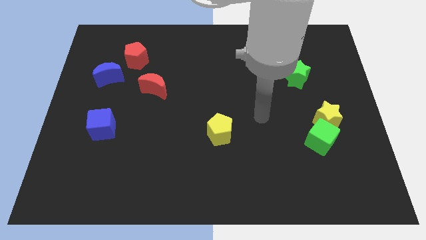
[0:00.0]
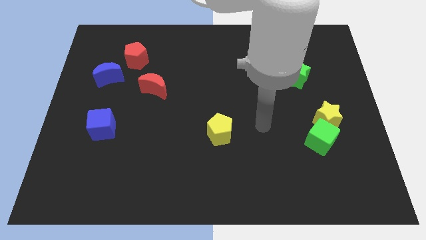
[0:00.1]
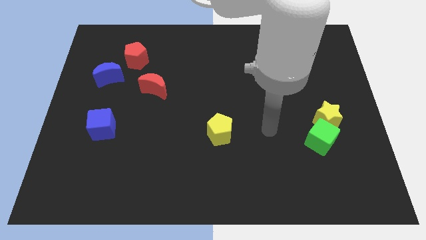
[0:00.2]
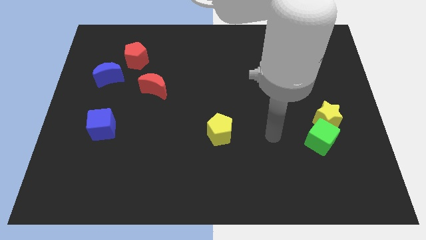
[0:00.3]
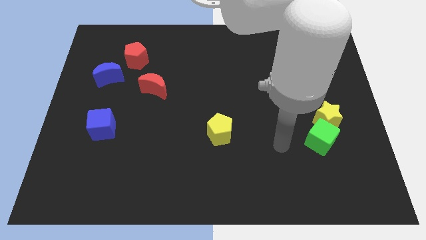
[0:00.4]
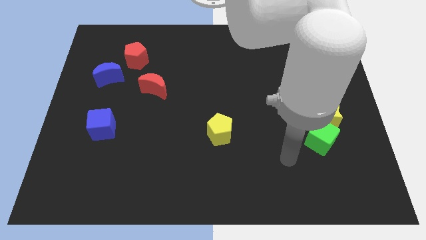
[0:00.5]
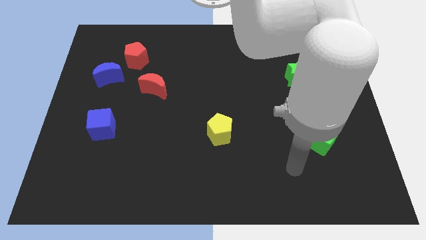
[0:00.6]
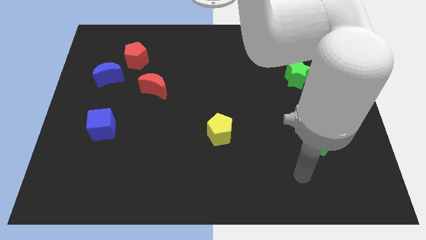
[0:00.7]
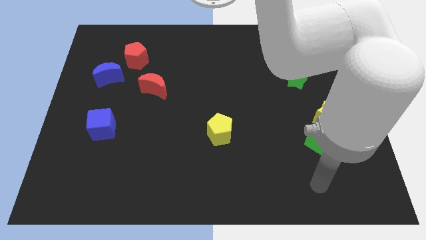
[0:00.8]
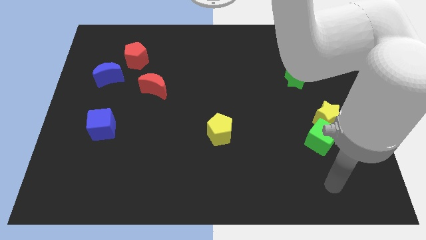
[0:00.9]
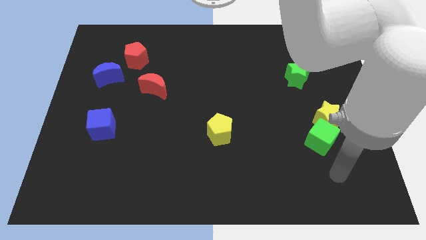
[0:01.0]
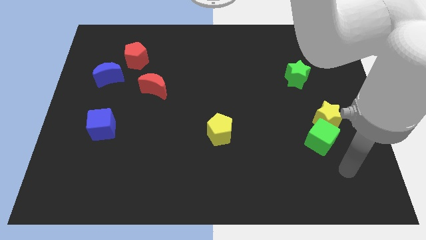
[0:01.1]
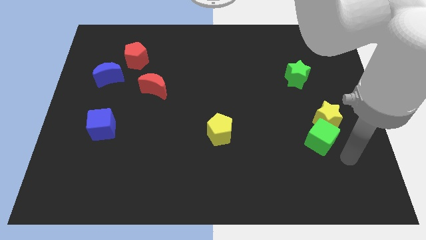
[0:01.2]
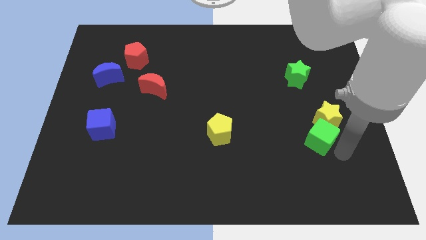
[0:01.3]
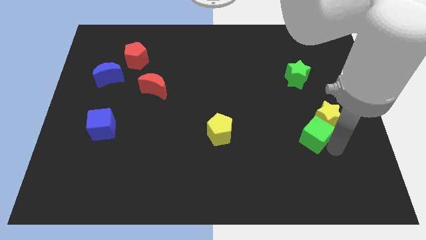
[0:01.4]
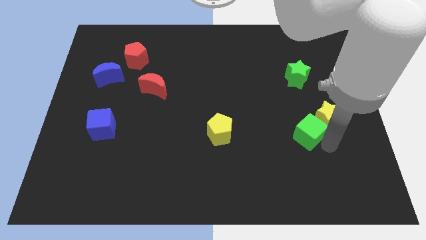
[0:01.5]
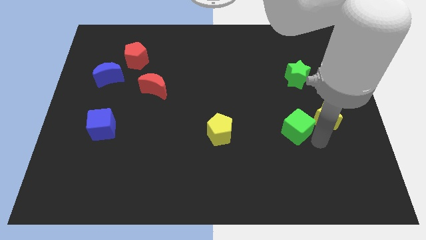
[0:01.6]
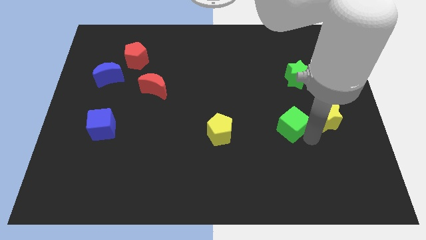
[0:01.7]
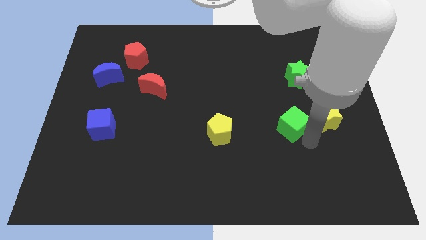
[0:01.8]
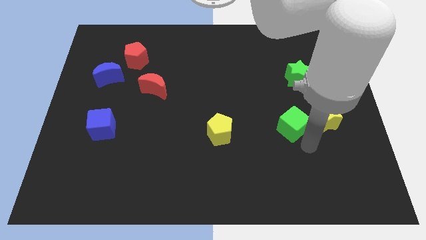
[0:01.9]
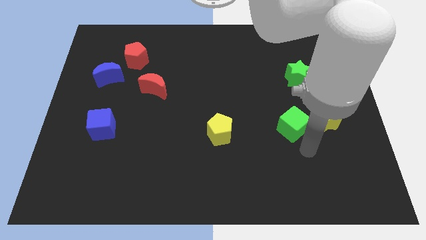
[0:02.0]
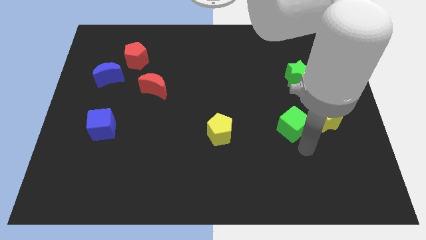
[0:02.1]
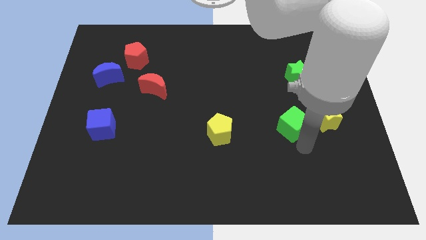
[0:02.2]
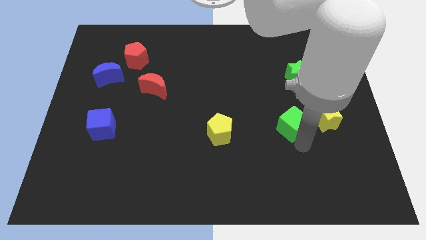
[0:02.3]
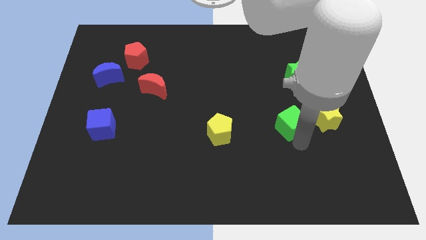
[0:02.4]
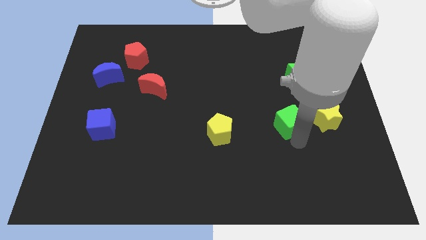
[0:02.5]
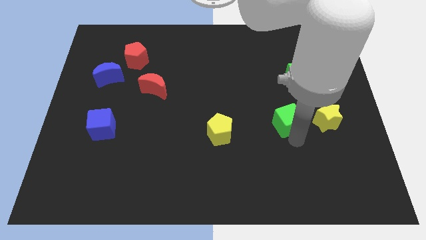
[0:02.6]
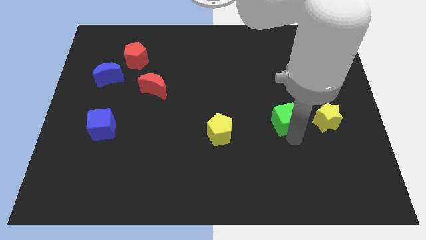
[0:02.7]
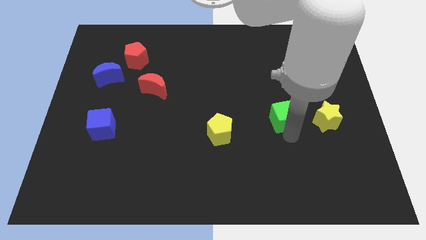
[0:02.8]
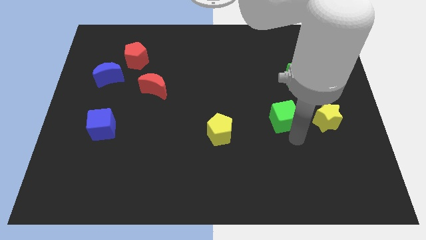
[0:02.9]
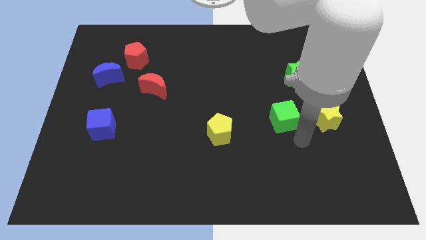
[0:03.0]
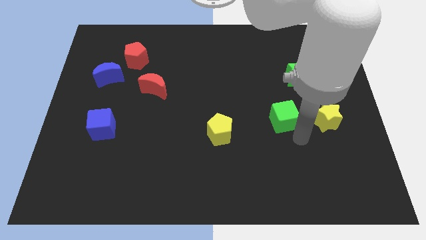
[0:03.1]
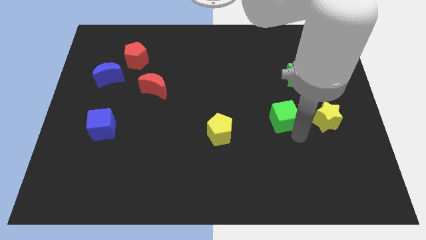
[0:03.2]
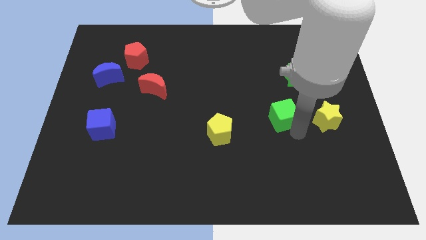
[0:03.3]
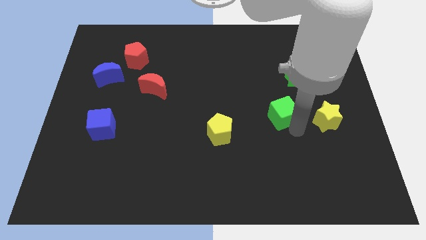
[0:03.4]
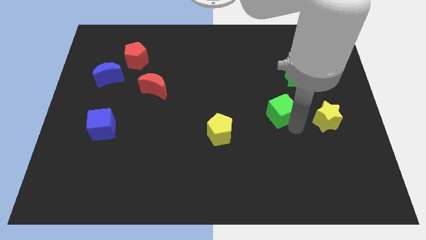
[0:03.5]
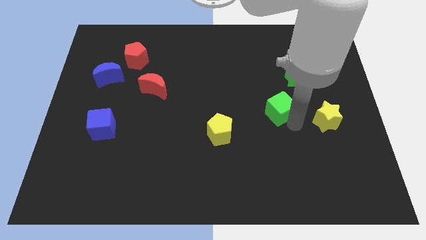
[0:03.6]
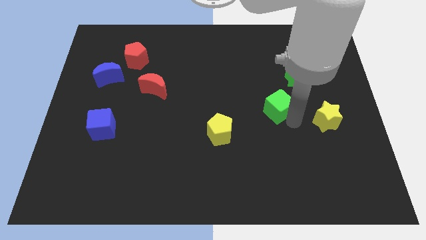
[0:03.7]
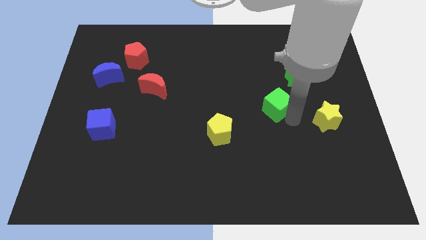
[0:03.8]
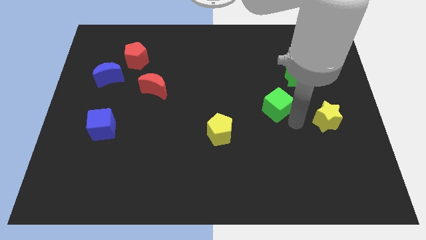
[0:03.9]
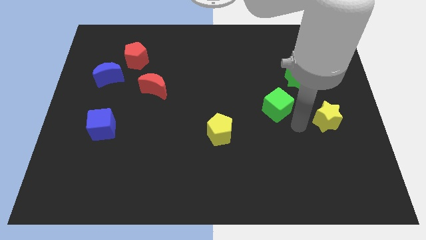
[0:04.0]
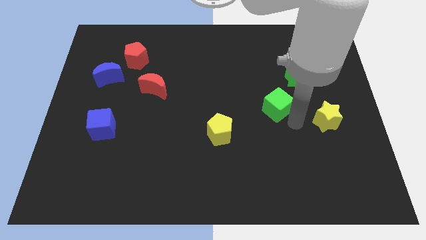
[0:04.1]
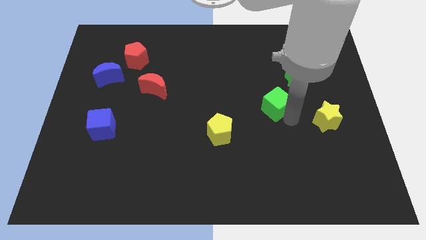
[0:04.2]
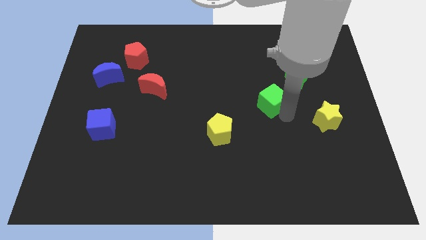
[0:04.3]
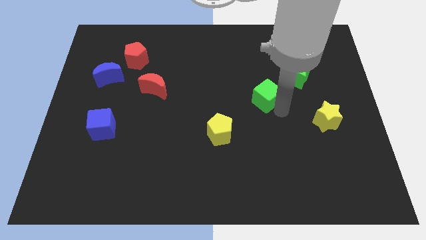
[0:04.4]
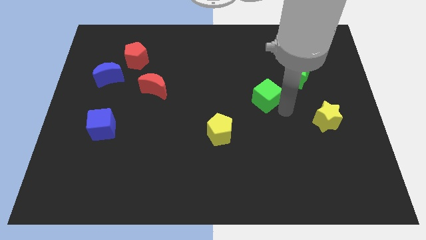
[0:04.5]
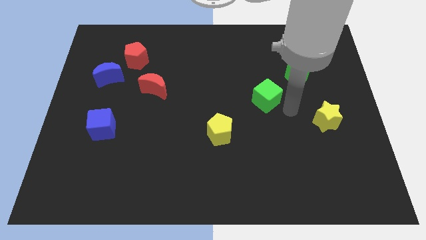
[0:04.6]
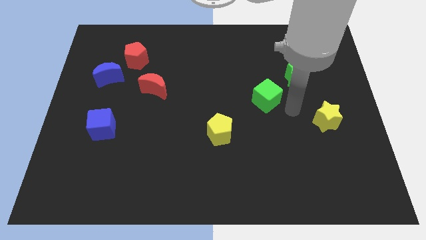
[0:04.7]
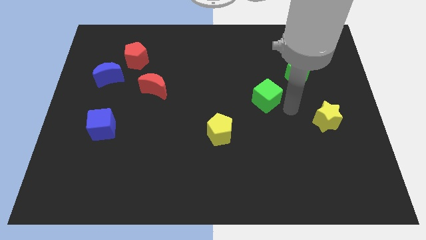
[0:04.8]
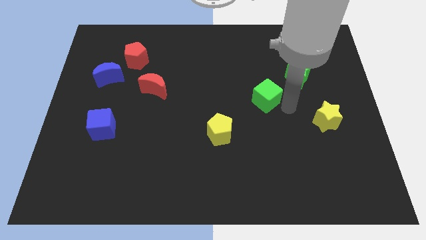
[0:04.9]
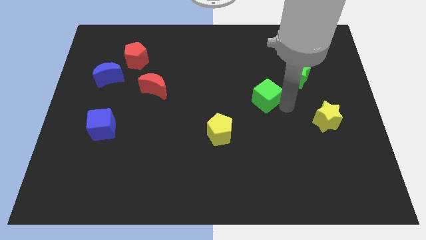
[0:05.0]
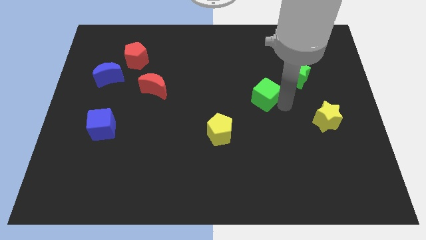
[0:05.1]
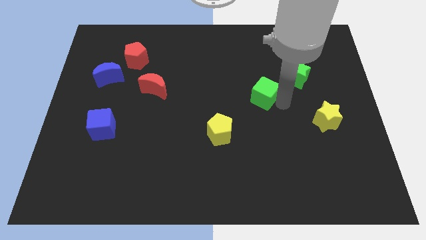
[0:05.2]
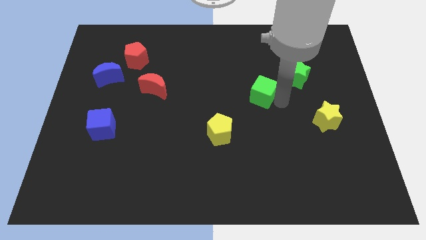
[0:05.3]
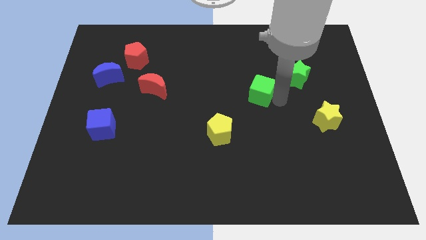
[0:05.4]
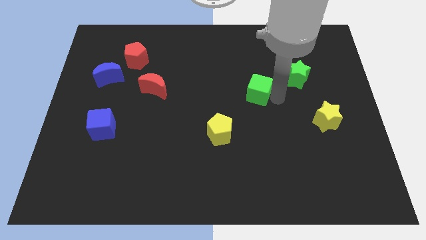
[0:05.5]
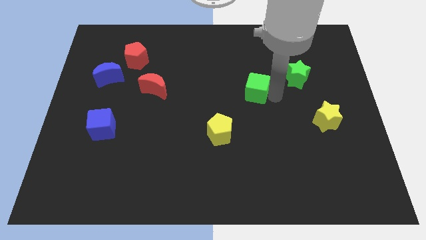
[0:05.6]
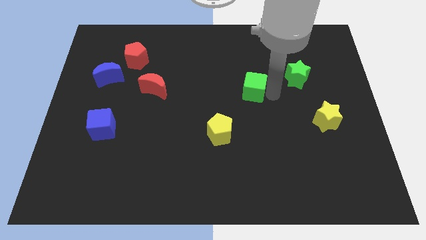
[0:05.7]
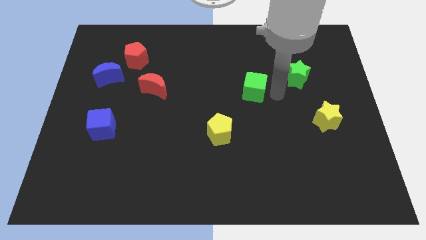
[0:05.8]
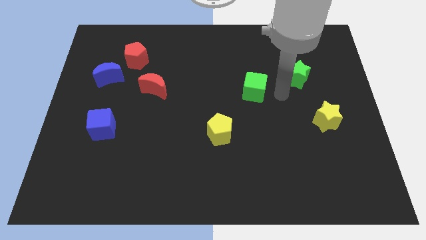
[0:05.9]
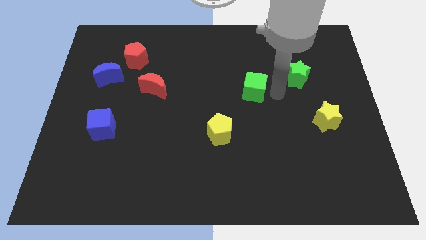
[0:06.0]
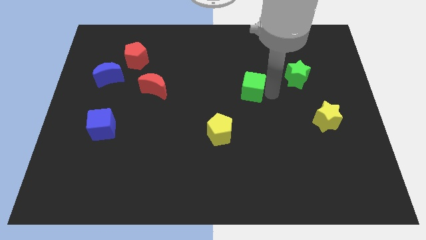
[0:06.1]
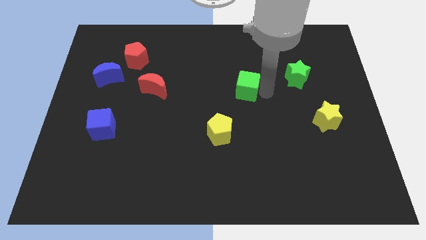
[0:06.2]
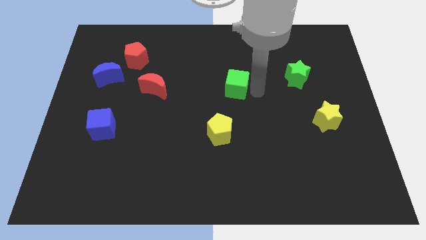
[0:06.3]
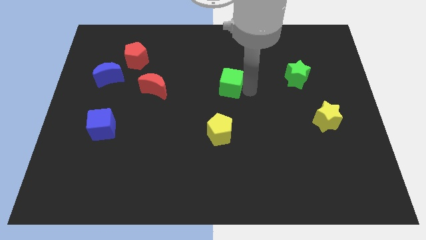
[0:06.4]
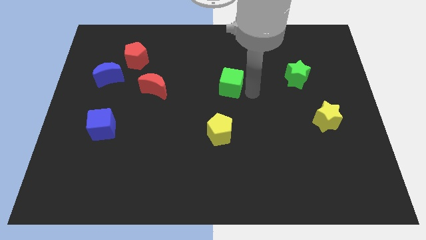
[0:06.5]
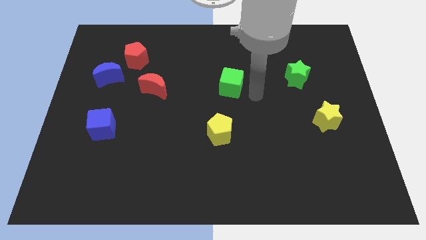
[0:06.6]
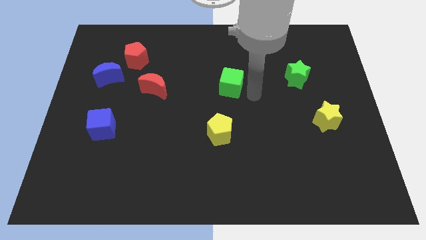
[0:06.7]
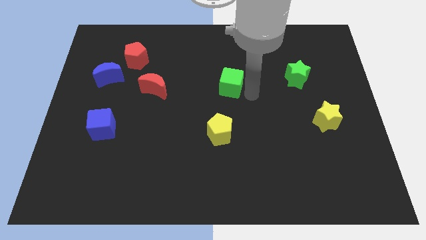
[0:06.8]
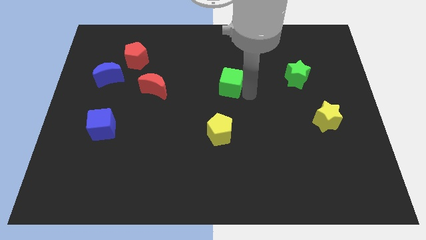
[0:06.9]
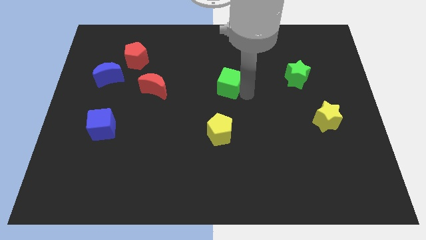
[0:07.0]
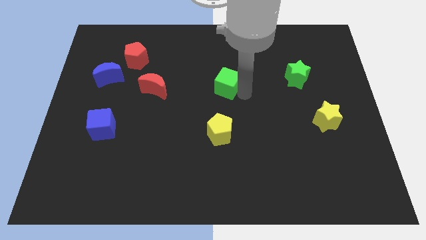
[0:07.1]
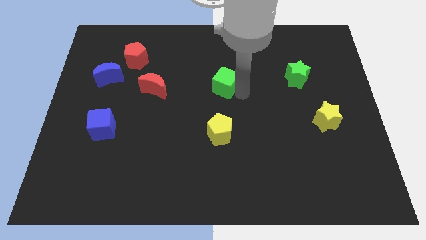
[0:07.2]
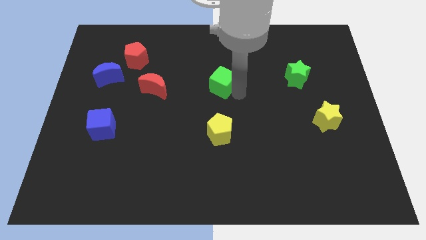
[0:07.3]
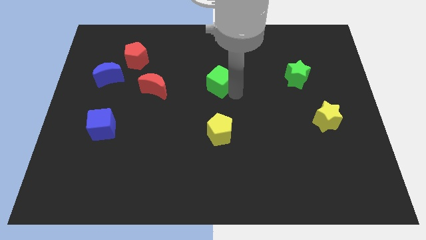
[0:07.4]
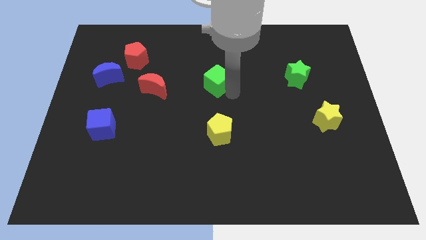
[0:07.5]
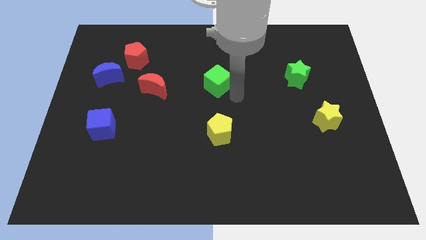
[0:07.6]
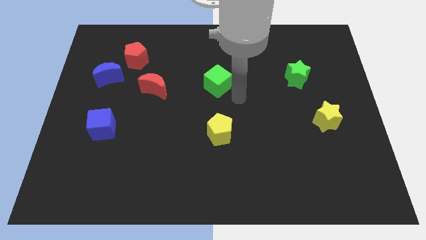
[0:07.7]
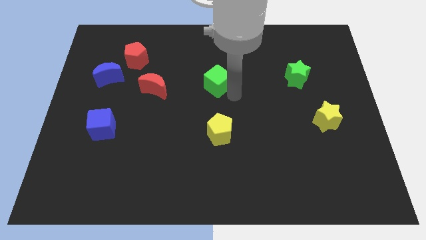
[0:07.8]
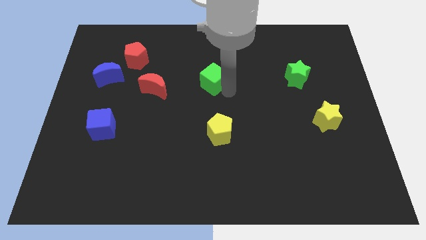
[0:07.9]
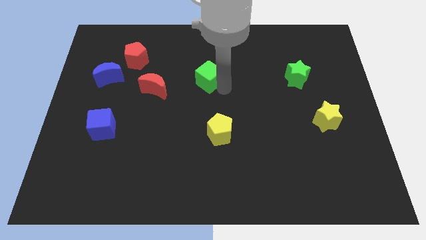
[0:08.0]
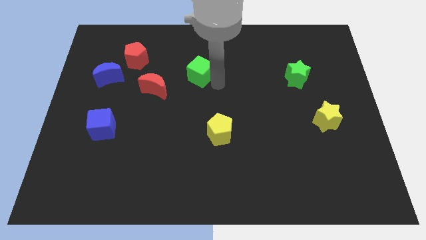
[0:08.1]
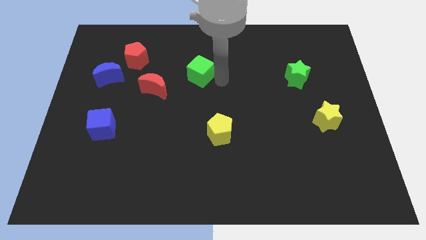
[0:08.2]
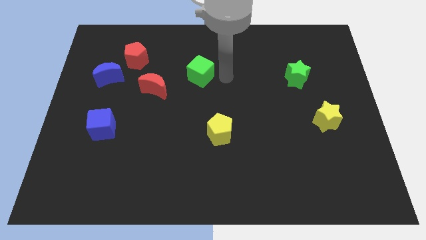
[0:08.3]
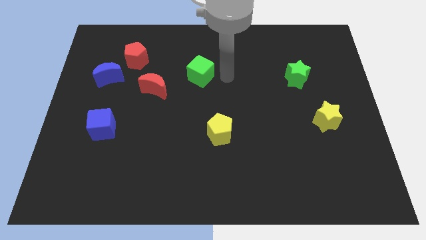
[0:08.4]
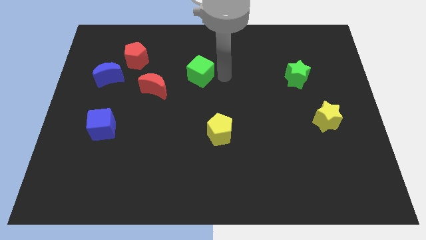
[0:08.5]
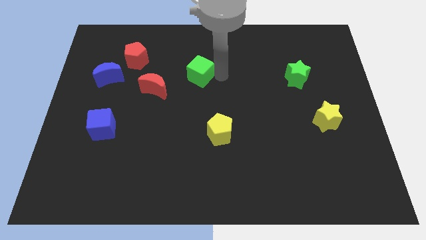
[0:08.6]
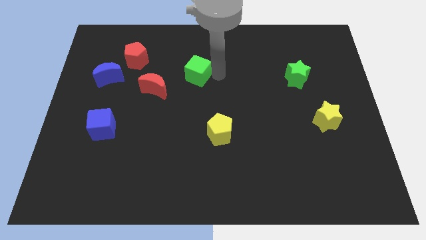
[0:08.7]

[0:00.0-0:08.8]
move the green cube diagonally up and to the right of the red moon
